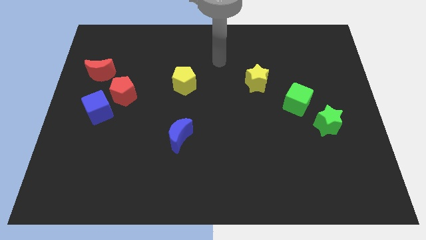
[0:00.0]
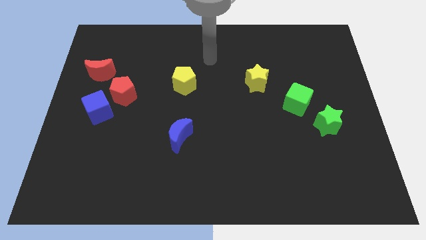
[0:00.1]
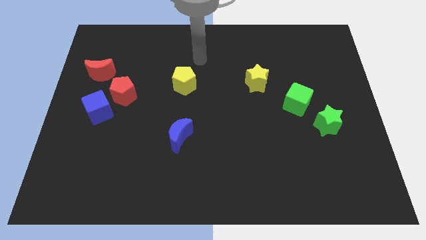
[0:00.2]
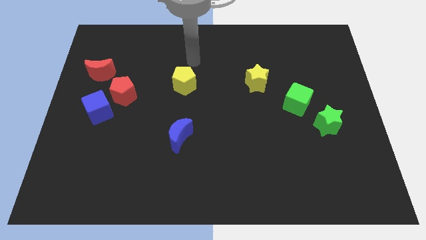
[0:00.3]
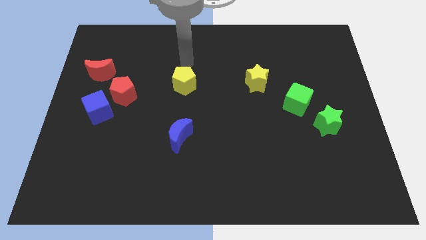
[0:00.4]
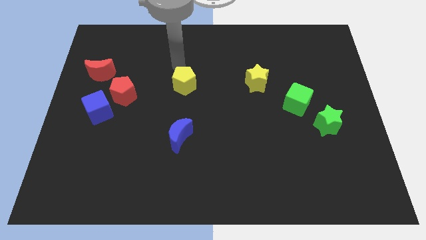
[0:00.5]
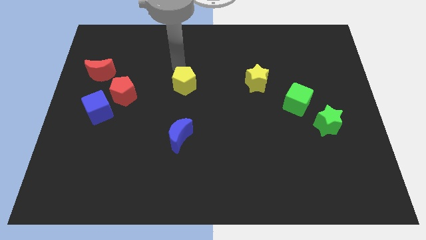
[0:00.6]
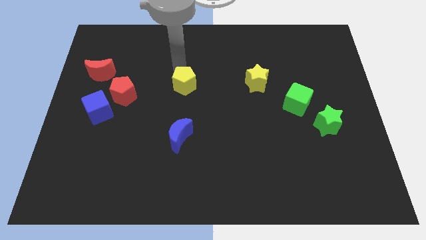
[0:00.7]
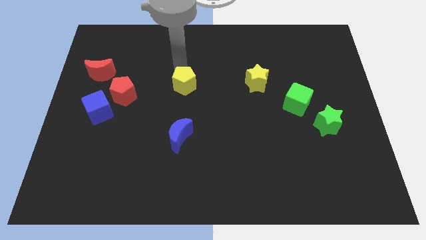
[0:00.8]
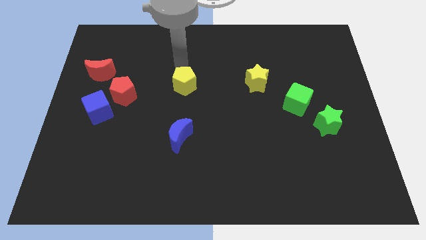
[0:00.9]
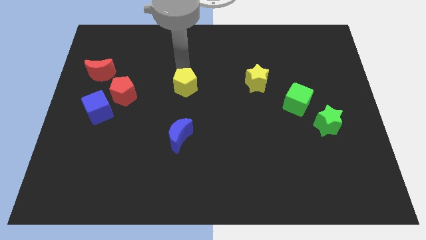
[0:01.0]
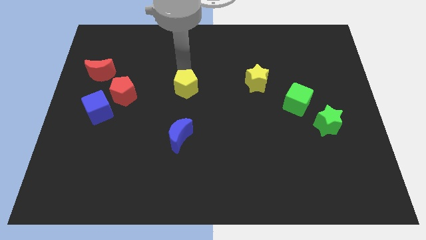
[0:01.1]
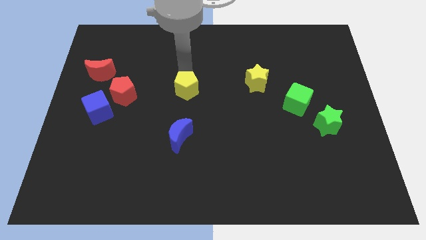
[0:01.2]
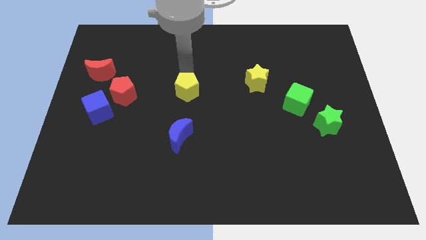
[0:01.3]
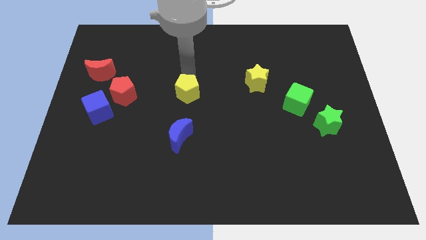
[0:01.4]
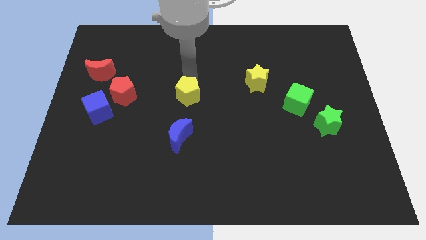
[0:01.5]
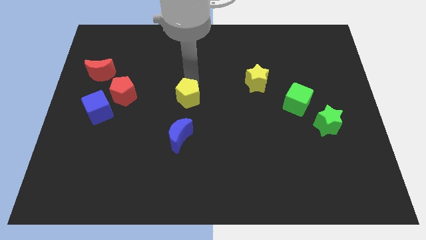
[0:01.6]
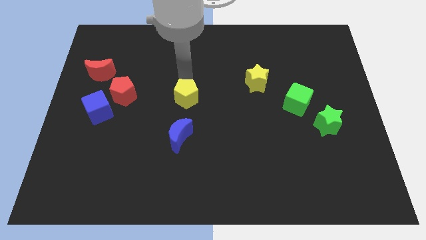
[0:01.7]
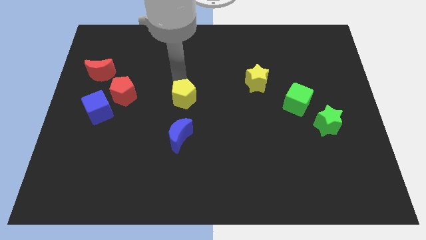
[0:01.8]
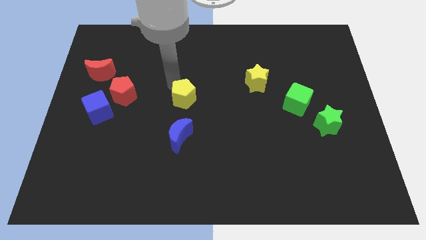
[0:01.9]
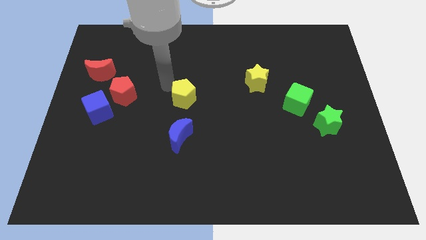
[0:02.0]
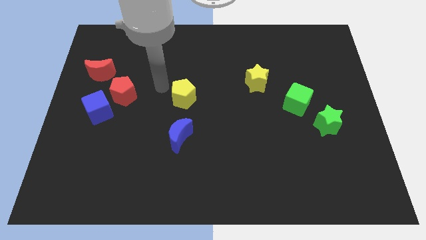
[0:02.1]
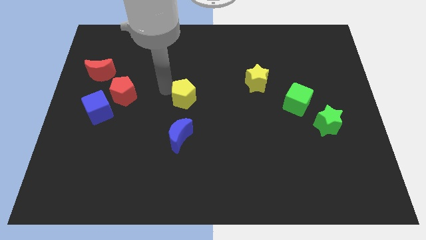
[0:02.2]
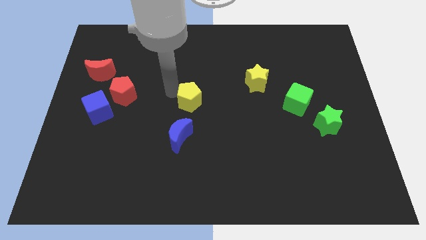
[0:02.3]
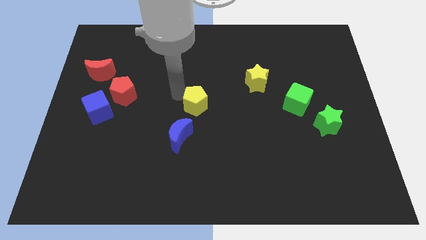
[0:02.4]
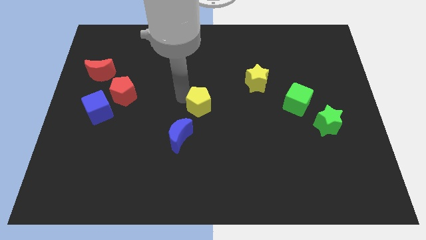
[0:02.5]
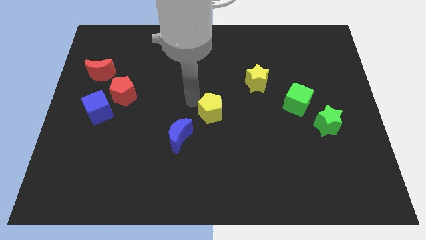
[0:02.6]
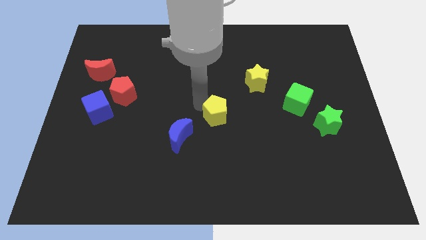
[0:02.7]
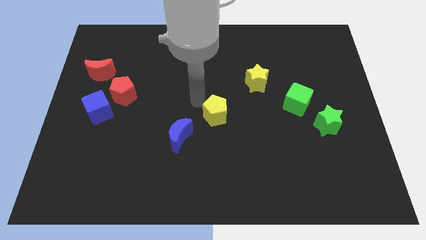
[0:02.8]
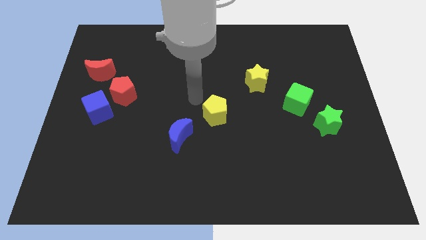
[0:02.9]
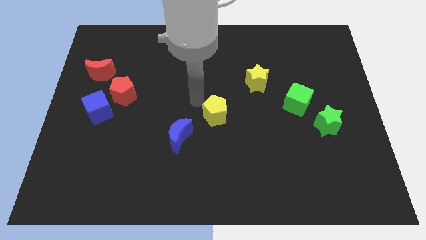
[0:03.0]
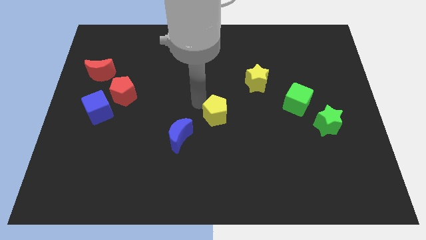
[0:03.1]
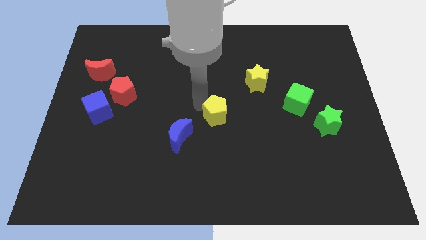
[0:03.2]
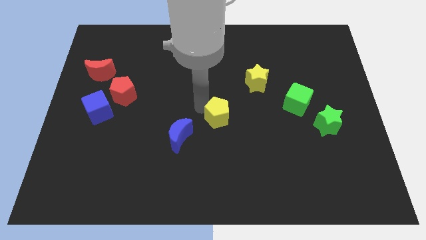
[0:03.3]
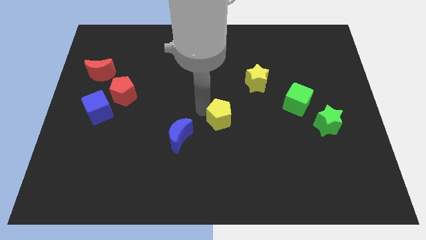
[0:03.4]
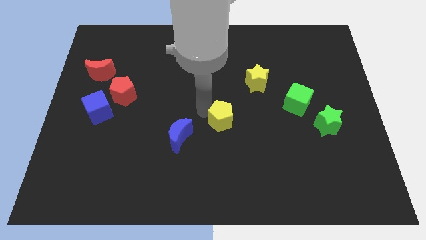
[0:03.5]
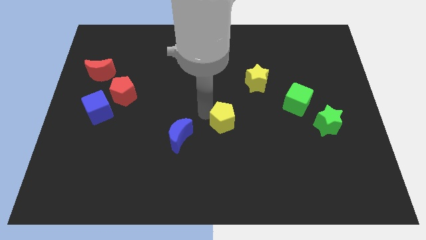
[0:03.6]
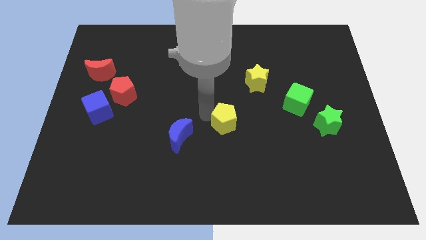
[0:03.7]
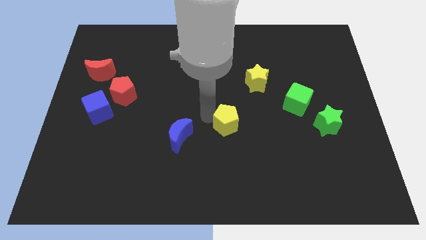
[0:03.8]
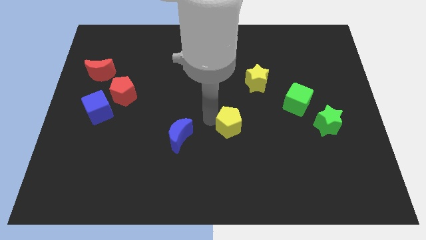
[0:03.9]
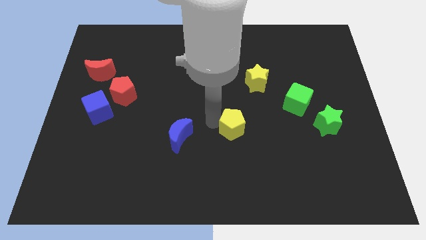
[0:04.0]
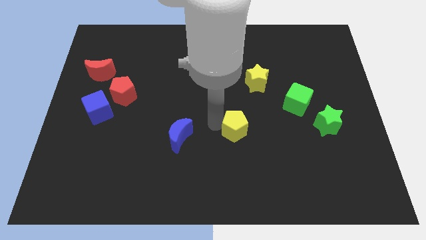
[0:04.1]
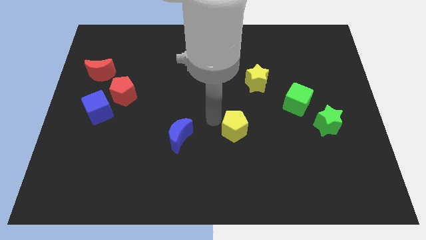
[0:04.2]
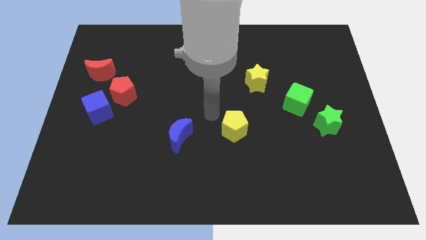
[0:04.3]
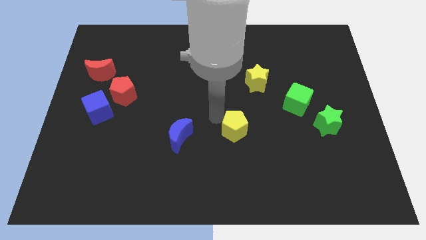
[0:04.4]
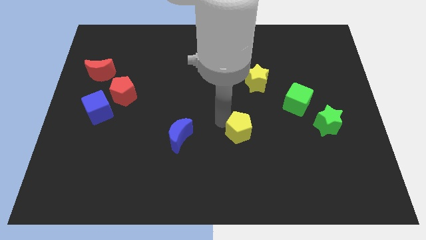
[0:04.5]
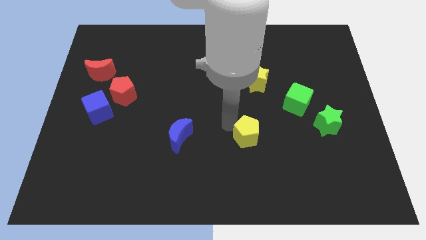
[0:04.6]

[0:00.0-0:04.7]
slide the yellow pentagon downwards and to the right

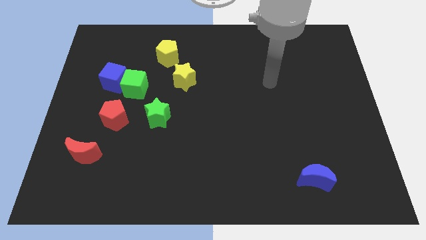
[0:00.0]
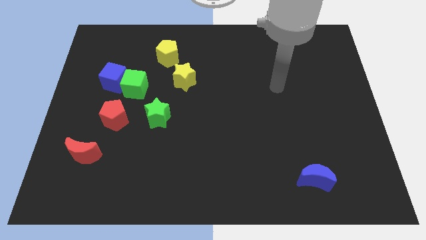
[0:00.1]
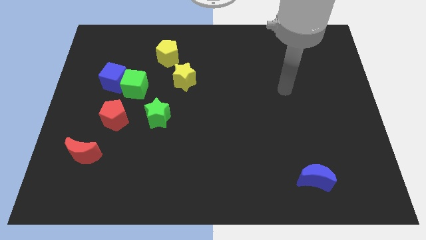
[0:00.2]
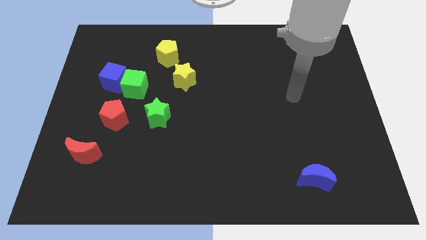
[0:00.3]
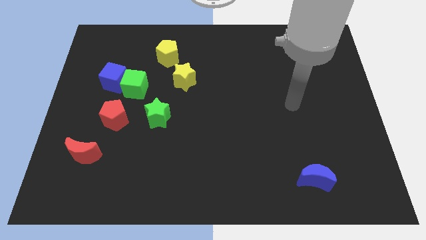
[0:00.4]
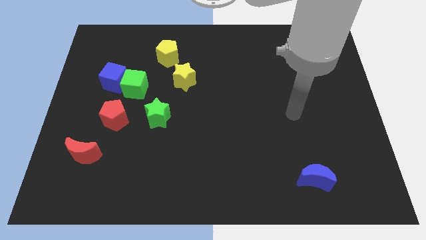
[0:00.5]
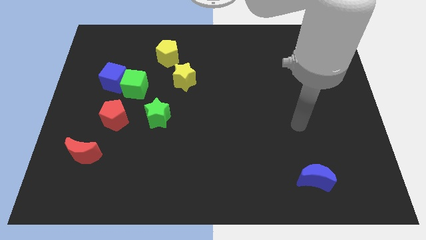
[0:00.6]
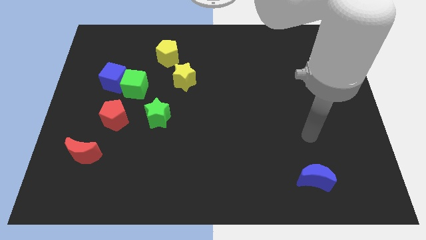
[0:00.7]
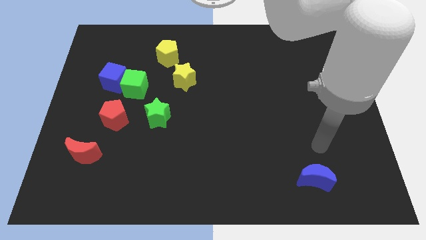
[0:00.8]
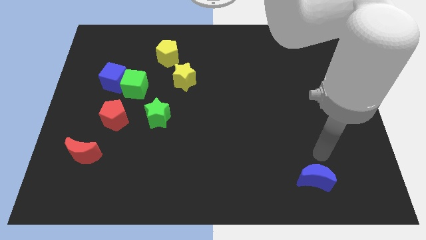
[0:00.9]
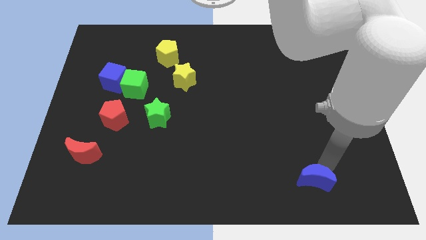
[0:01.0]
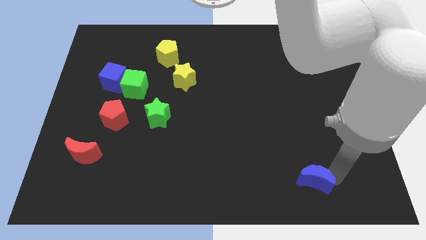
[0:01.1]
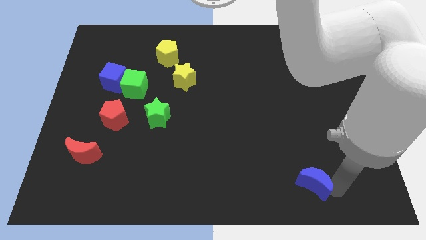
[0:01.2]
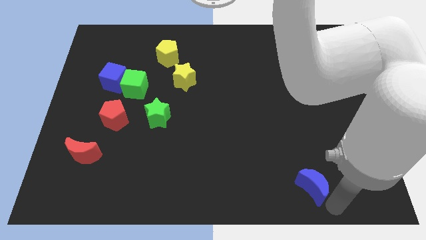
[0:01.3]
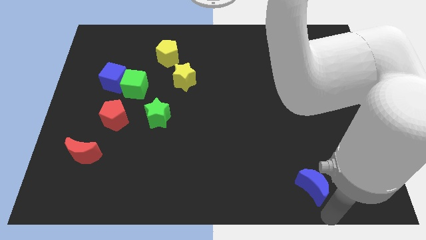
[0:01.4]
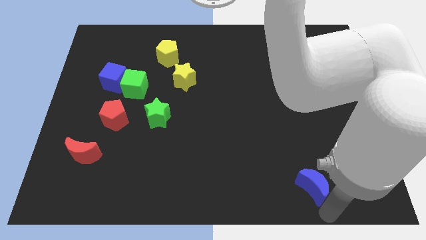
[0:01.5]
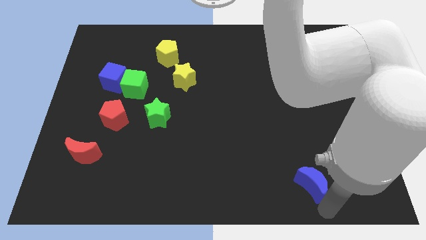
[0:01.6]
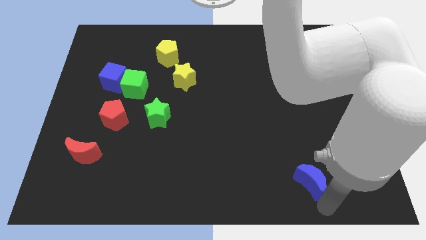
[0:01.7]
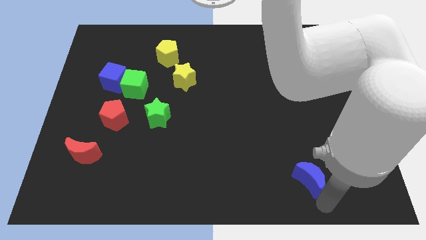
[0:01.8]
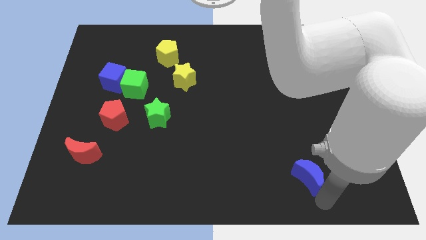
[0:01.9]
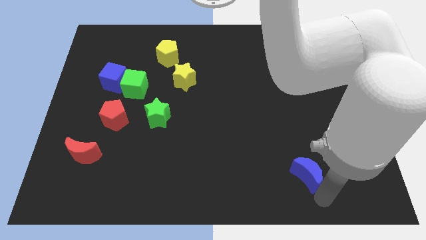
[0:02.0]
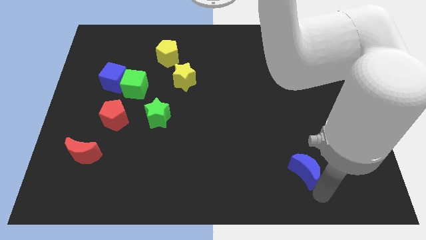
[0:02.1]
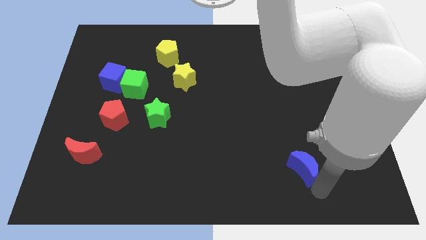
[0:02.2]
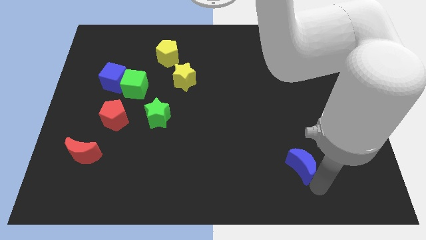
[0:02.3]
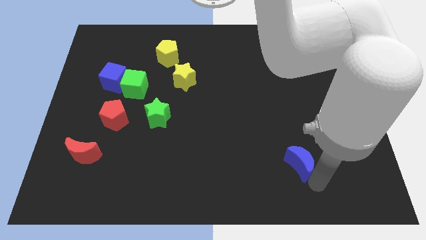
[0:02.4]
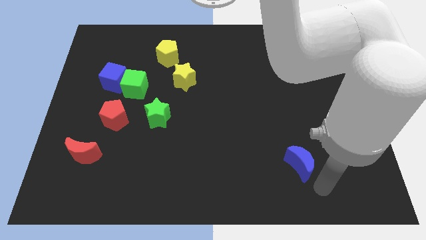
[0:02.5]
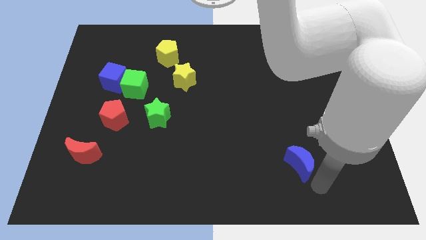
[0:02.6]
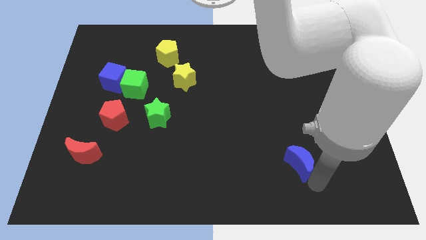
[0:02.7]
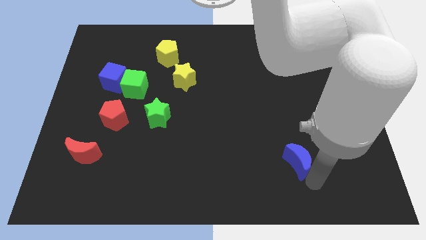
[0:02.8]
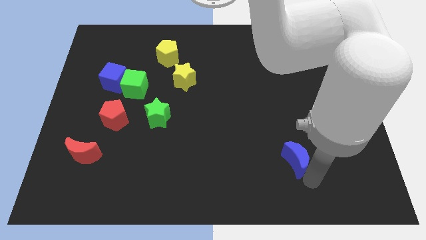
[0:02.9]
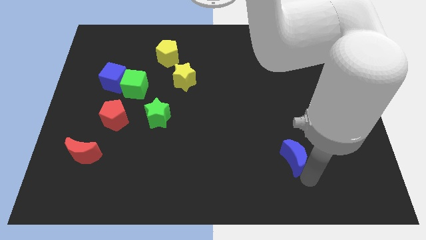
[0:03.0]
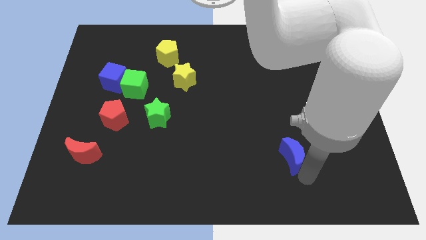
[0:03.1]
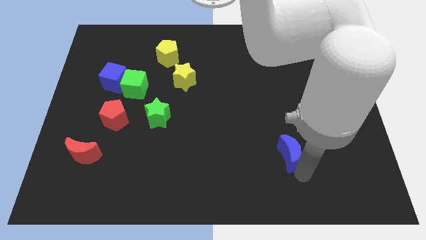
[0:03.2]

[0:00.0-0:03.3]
slightly move the blue moon upwards and then to the left

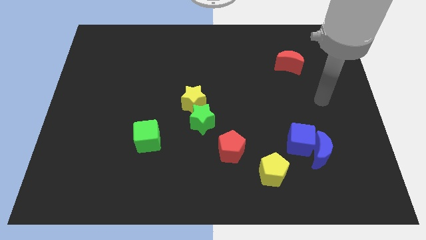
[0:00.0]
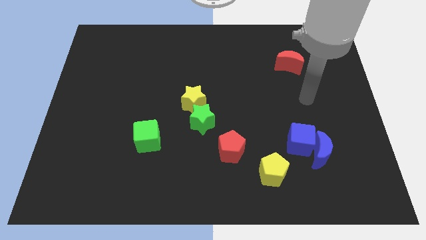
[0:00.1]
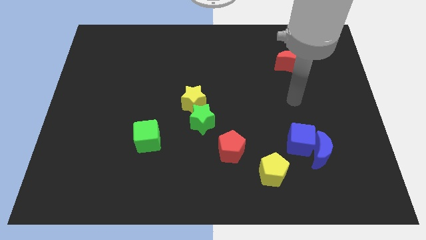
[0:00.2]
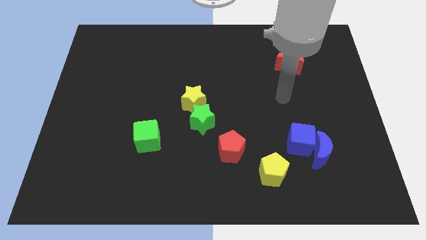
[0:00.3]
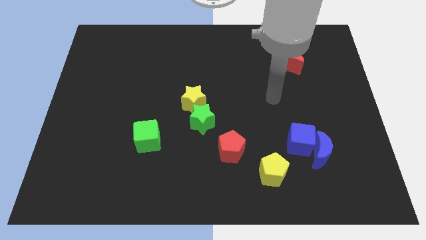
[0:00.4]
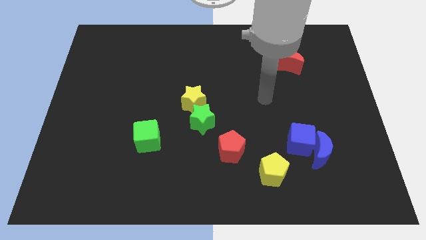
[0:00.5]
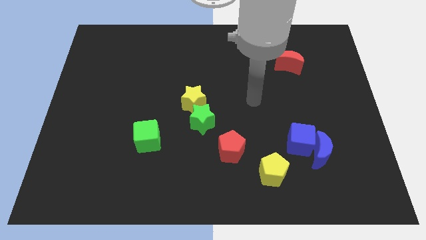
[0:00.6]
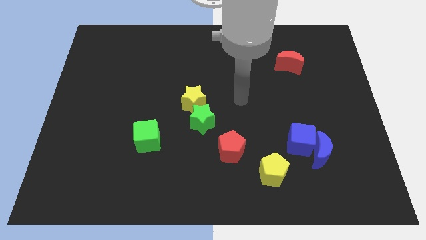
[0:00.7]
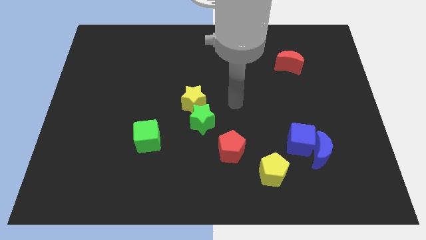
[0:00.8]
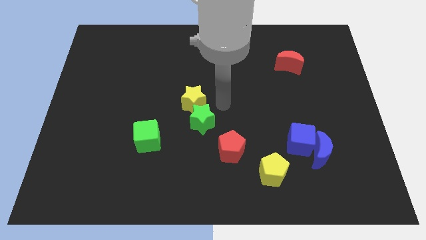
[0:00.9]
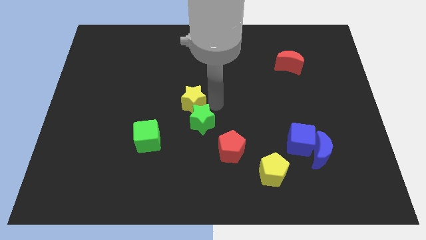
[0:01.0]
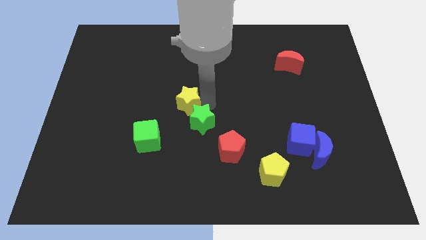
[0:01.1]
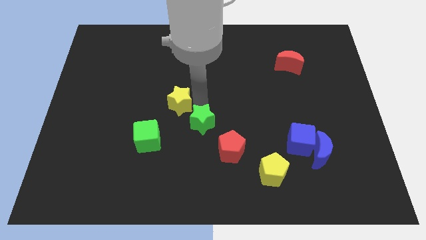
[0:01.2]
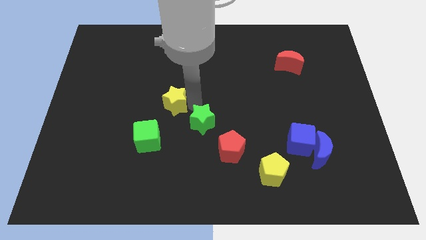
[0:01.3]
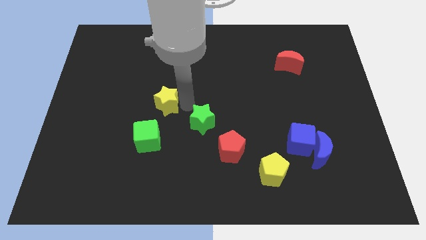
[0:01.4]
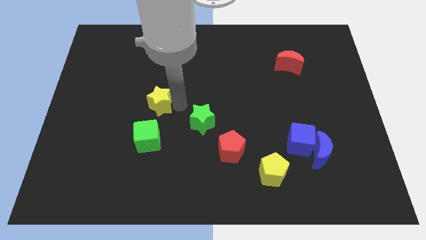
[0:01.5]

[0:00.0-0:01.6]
push the yellow star to the left a little bit
